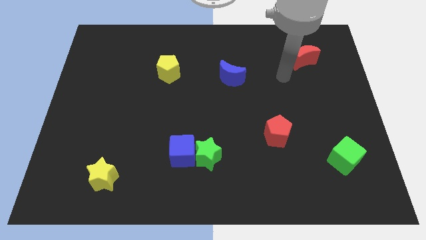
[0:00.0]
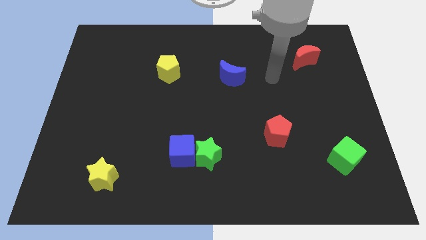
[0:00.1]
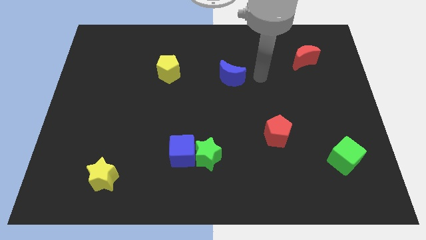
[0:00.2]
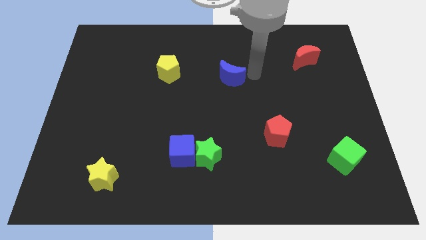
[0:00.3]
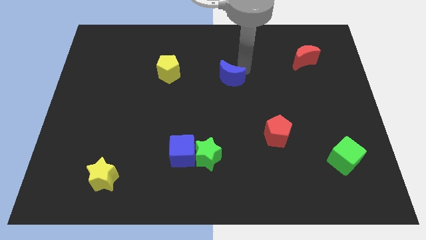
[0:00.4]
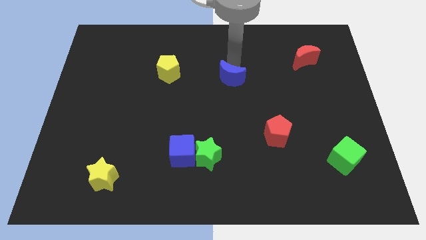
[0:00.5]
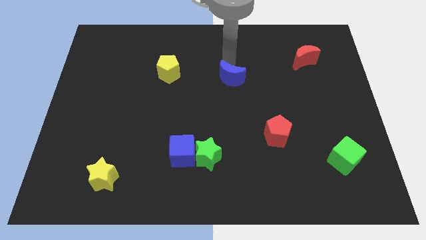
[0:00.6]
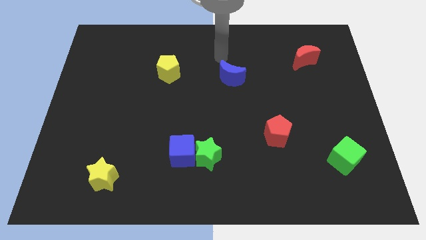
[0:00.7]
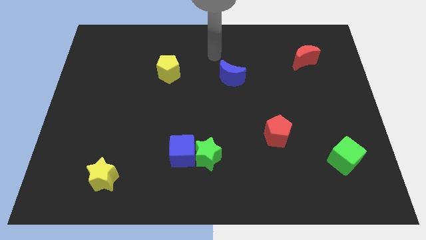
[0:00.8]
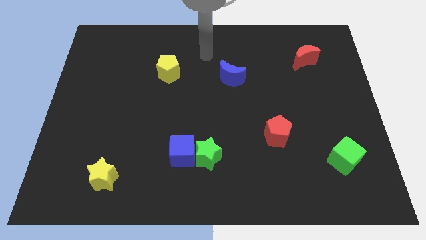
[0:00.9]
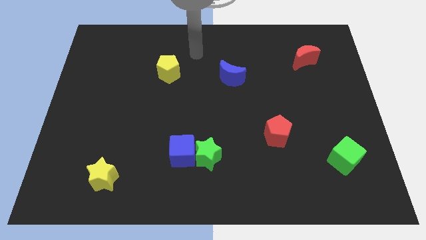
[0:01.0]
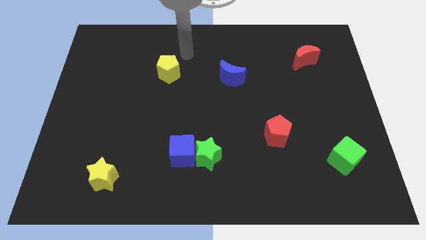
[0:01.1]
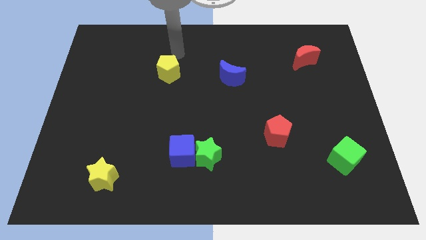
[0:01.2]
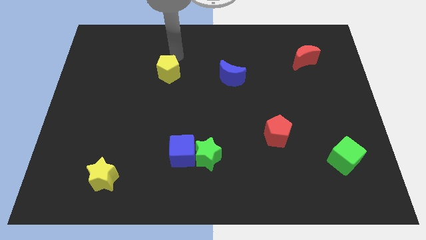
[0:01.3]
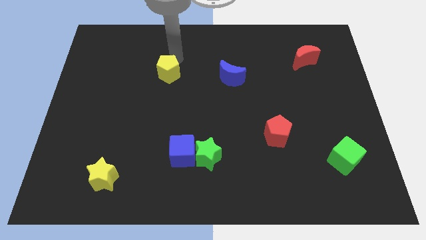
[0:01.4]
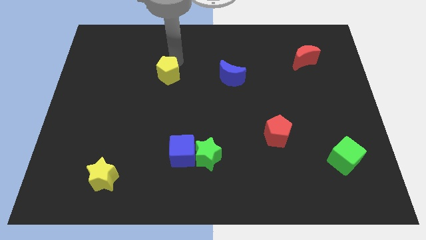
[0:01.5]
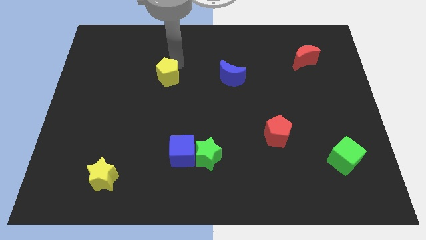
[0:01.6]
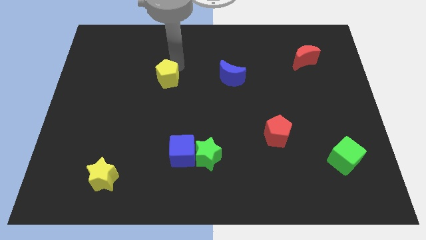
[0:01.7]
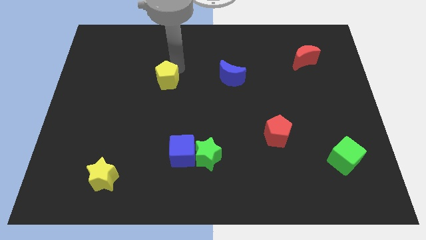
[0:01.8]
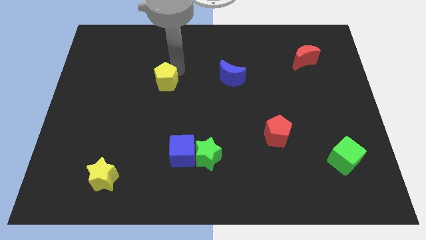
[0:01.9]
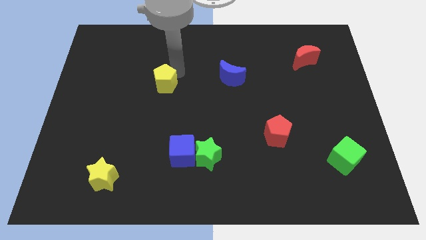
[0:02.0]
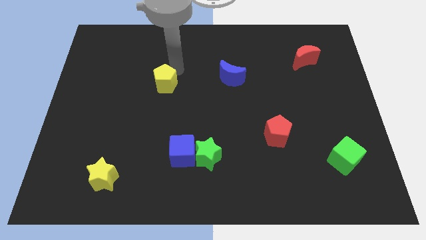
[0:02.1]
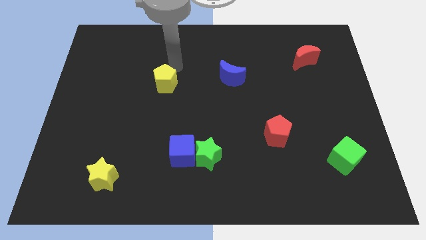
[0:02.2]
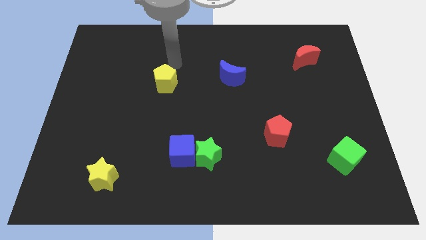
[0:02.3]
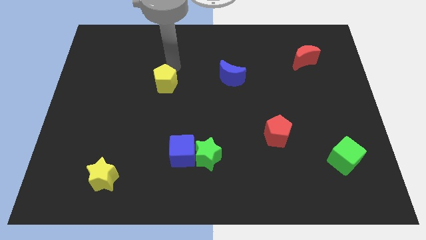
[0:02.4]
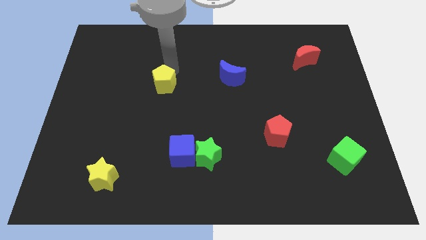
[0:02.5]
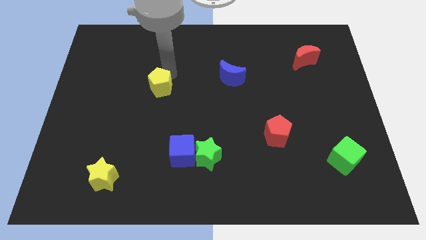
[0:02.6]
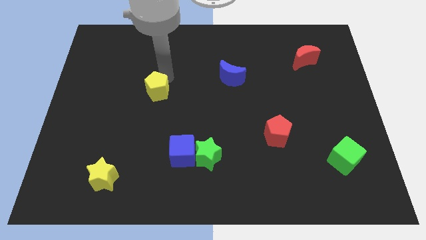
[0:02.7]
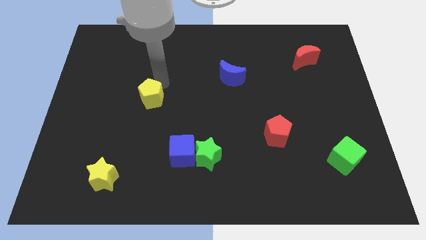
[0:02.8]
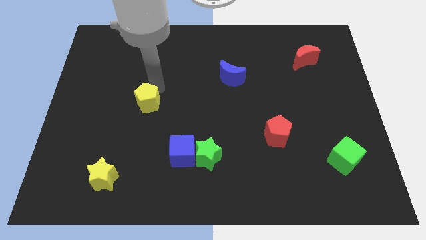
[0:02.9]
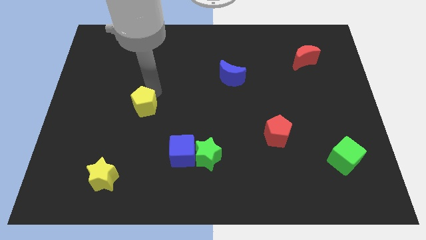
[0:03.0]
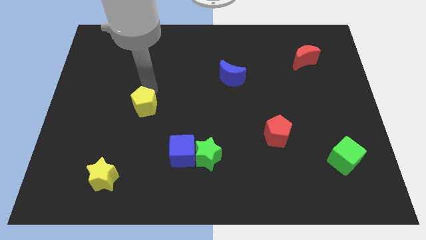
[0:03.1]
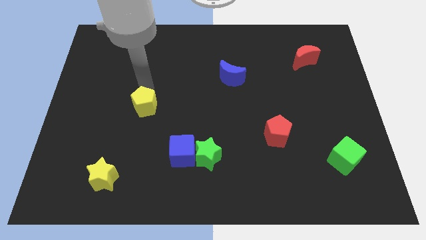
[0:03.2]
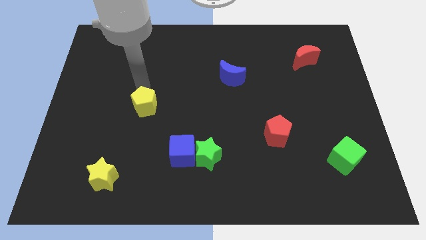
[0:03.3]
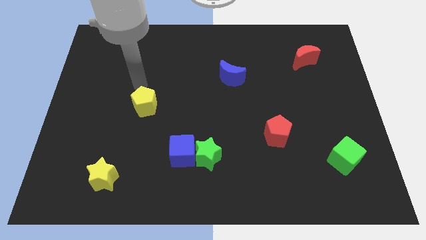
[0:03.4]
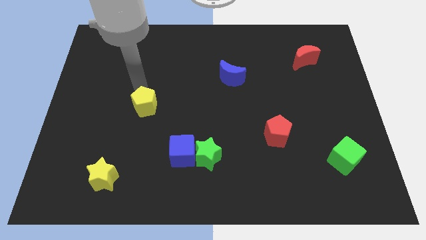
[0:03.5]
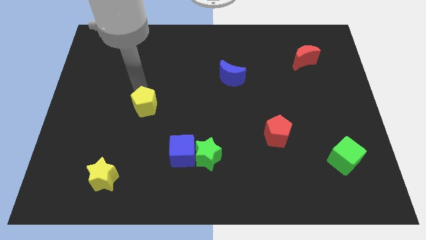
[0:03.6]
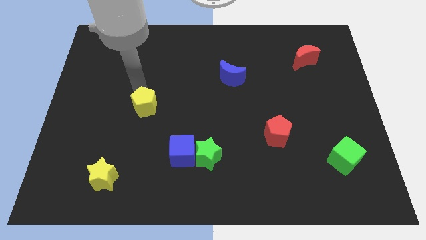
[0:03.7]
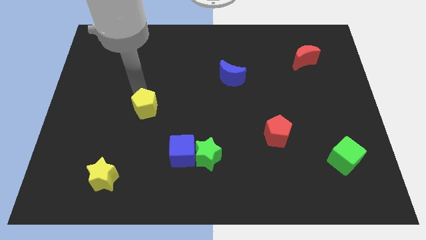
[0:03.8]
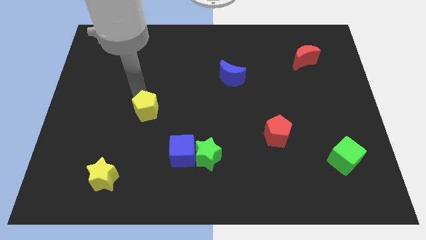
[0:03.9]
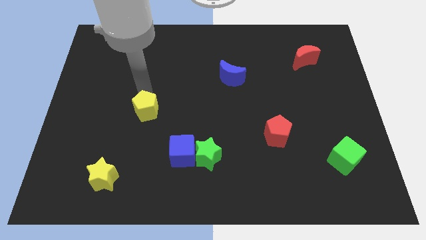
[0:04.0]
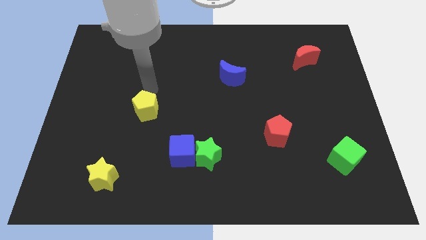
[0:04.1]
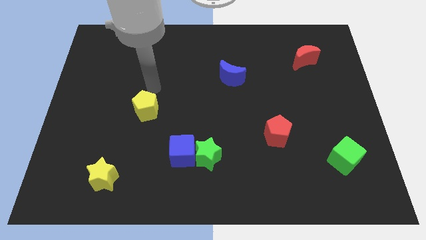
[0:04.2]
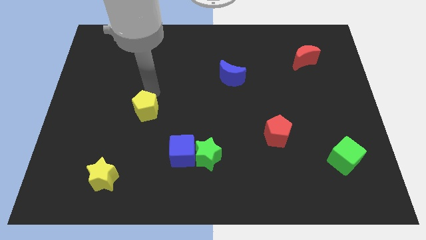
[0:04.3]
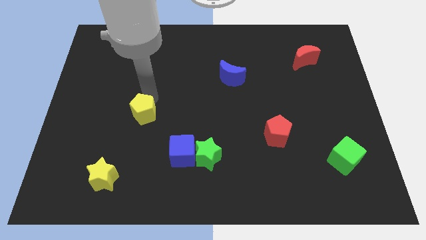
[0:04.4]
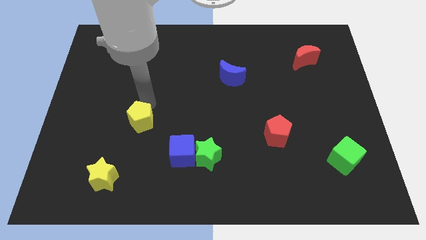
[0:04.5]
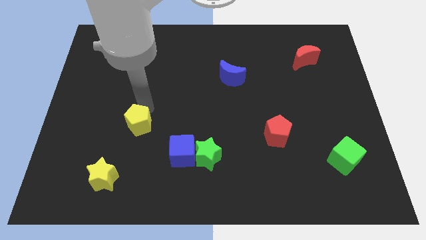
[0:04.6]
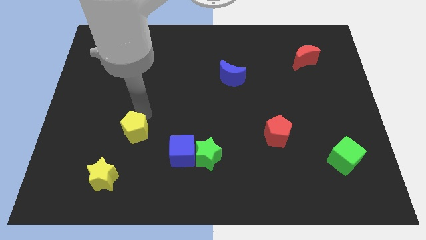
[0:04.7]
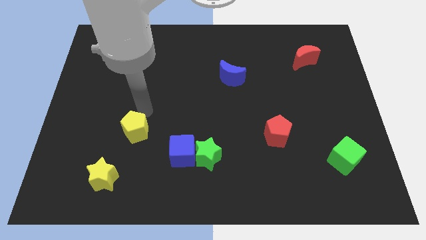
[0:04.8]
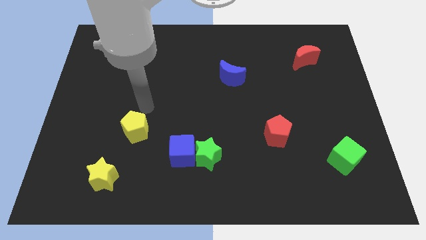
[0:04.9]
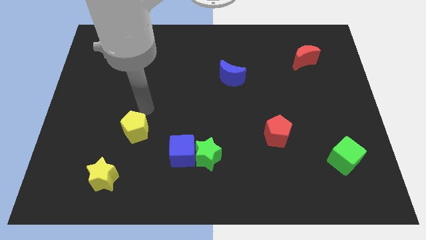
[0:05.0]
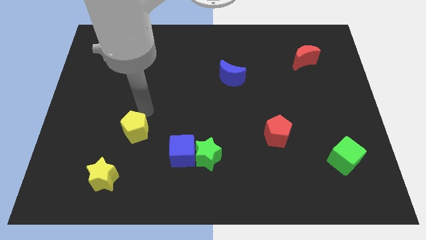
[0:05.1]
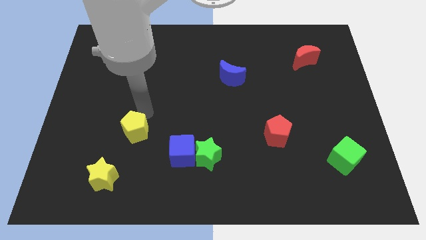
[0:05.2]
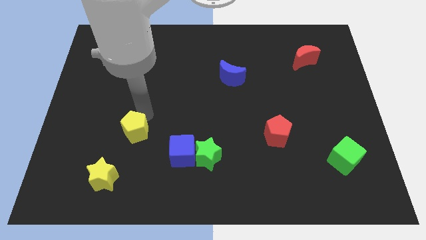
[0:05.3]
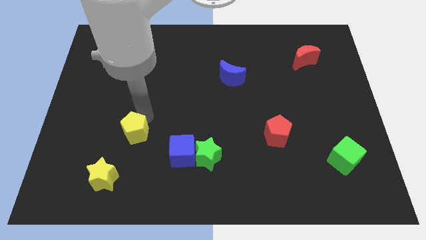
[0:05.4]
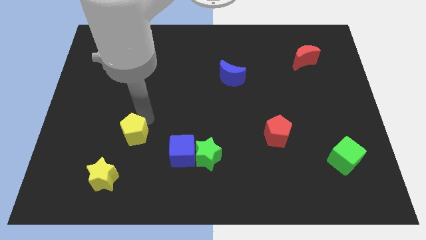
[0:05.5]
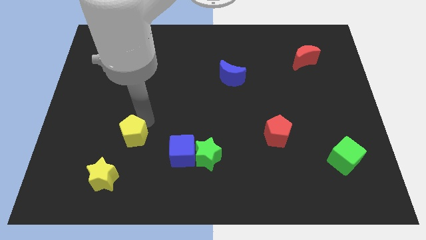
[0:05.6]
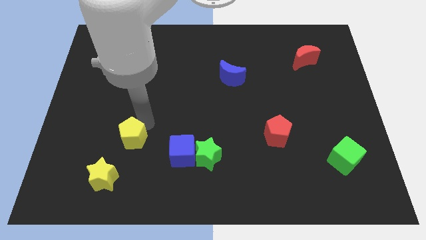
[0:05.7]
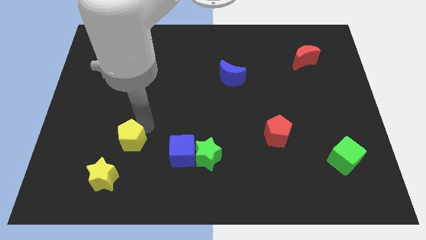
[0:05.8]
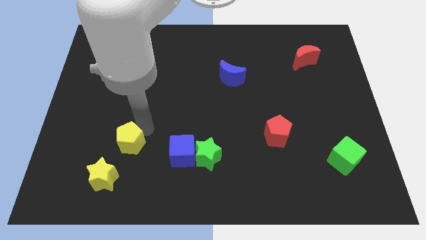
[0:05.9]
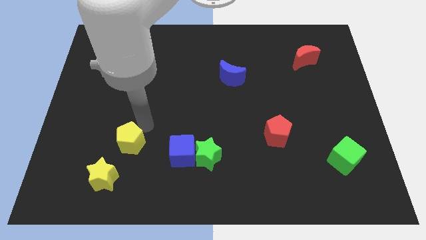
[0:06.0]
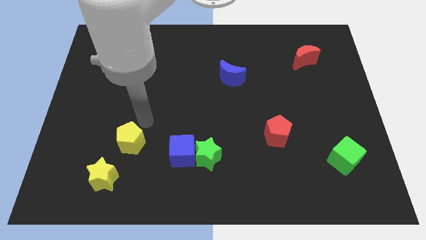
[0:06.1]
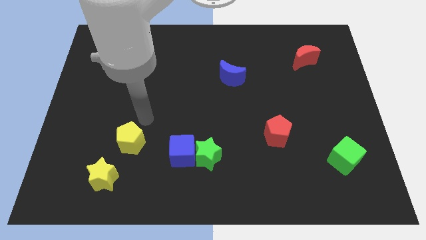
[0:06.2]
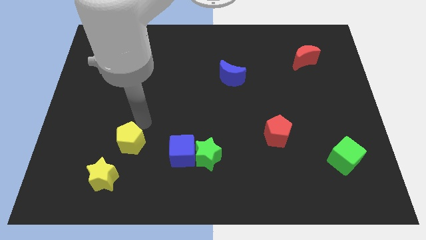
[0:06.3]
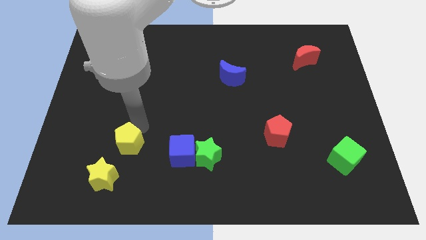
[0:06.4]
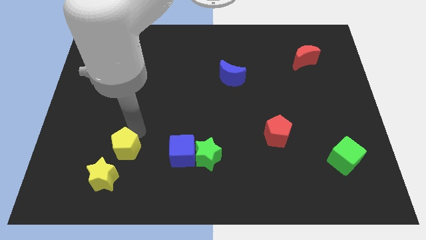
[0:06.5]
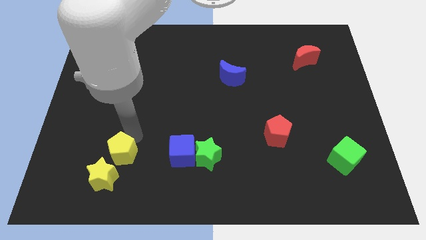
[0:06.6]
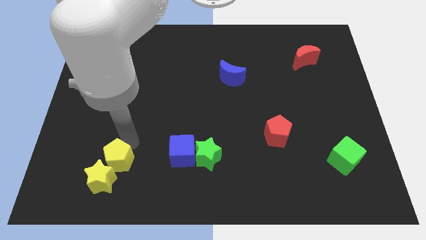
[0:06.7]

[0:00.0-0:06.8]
move the yellow pentagon towards the yellow star

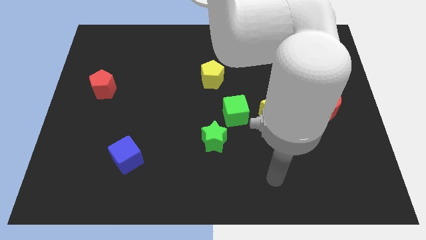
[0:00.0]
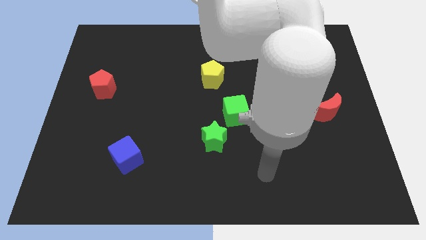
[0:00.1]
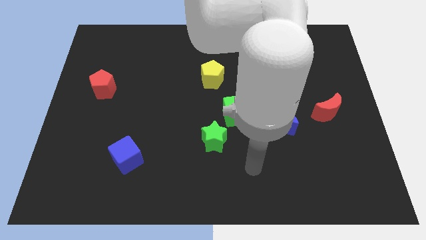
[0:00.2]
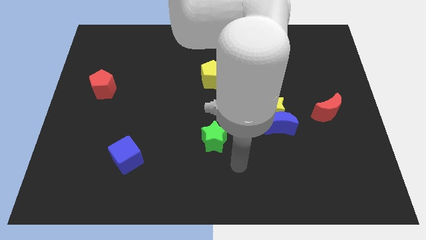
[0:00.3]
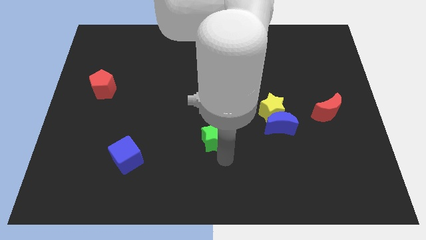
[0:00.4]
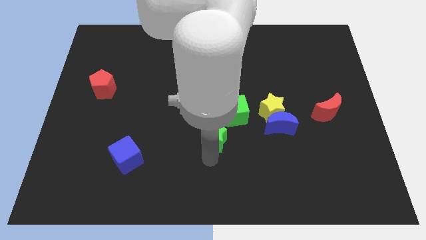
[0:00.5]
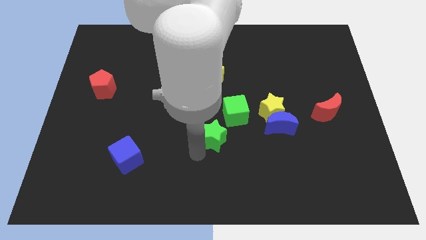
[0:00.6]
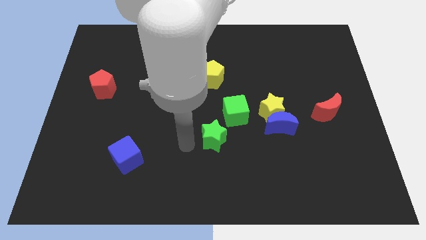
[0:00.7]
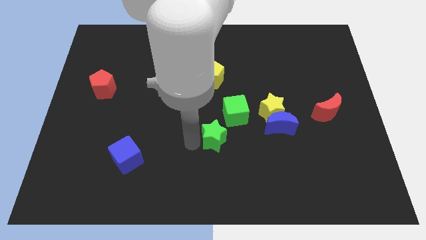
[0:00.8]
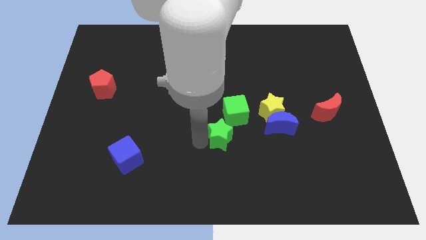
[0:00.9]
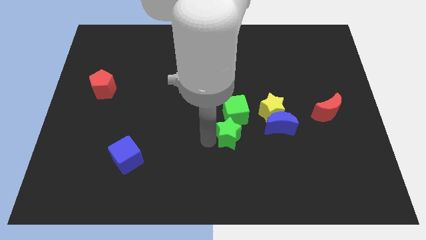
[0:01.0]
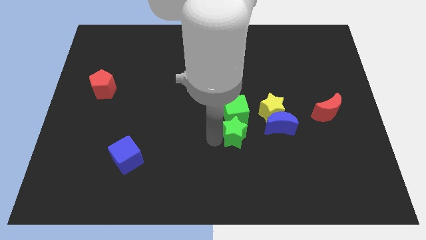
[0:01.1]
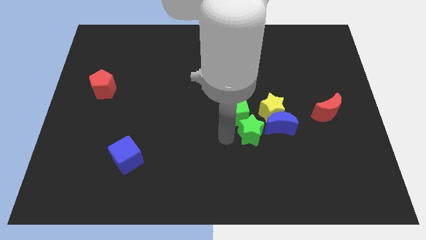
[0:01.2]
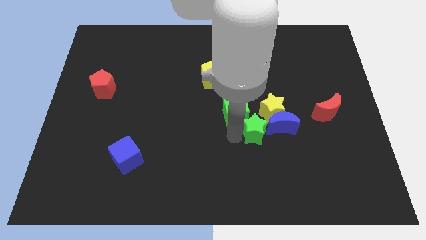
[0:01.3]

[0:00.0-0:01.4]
push the green star to the blue moon
